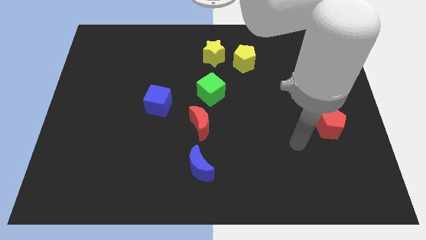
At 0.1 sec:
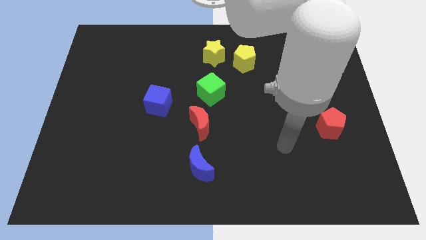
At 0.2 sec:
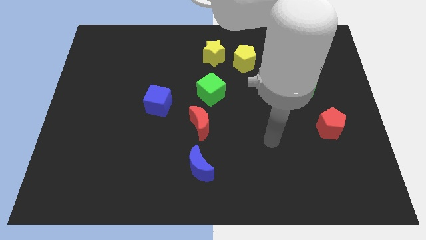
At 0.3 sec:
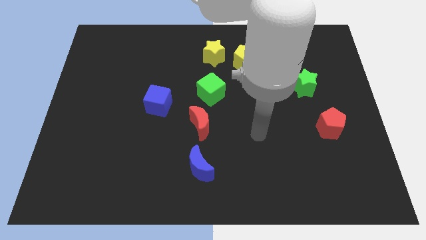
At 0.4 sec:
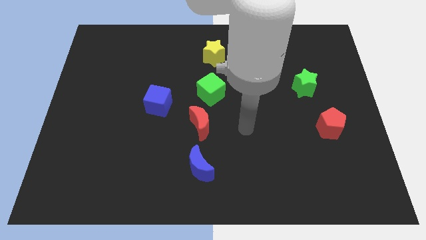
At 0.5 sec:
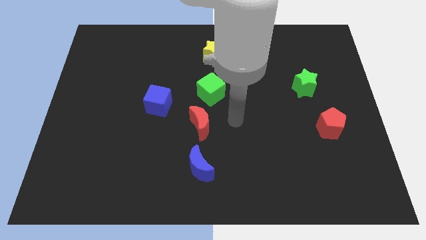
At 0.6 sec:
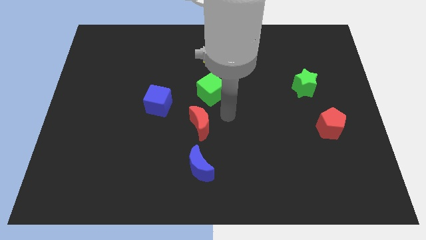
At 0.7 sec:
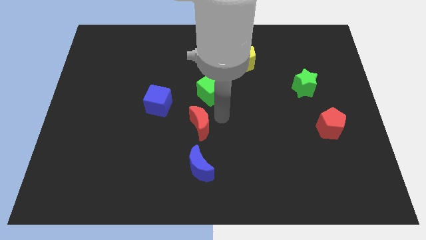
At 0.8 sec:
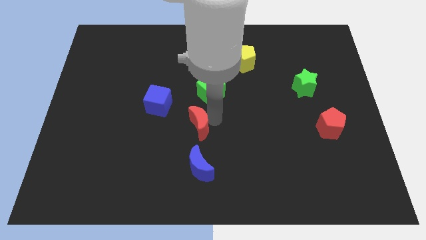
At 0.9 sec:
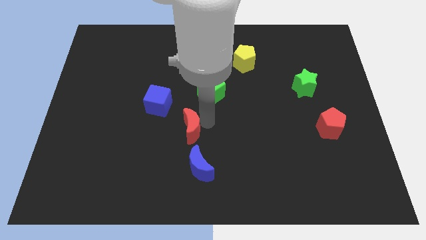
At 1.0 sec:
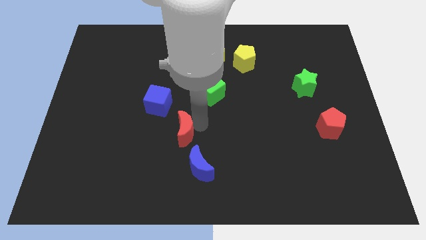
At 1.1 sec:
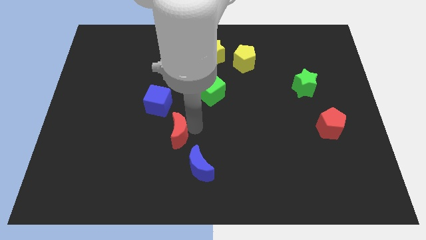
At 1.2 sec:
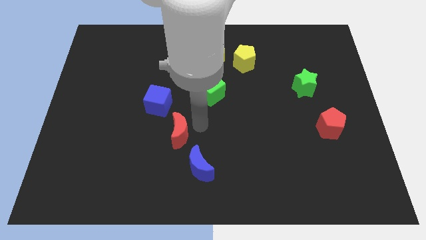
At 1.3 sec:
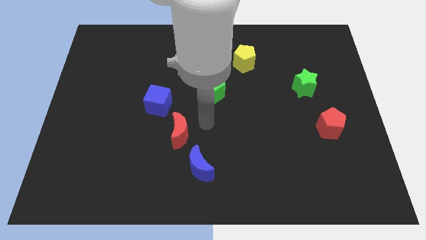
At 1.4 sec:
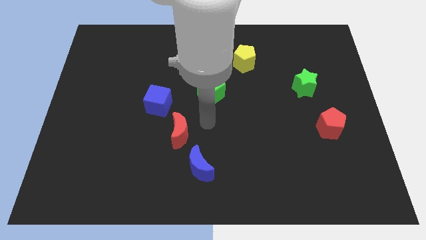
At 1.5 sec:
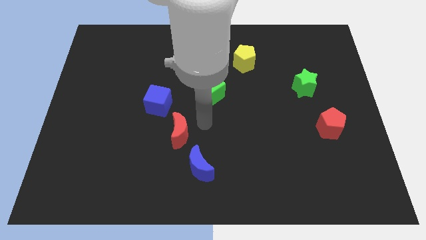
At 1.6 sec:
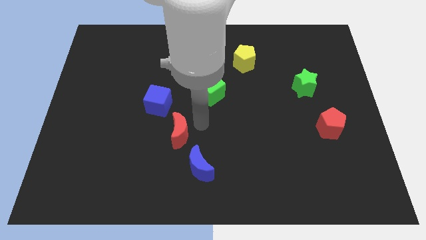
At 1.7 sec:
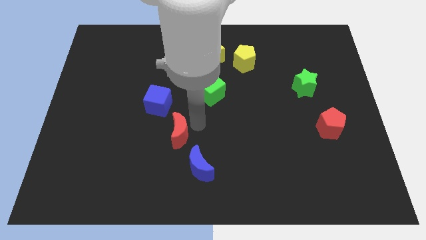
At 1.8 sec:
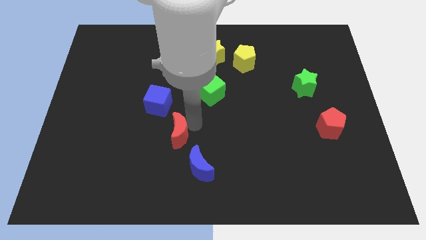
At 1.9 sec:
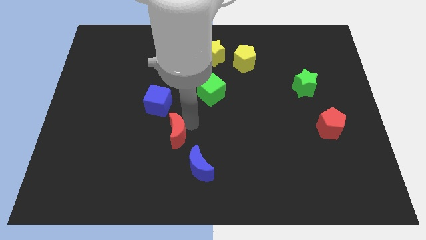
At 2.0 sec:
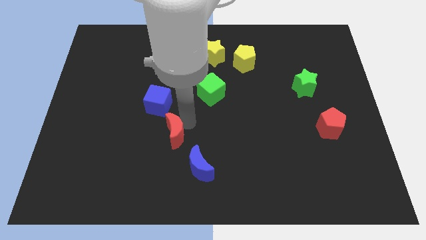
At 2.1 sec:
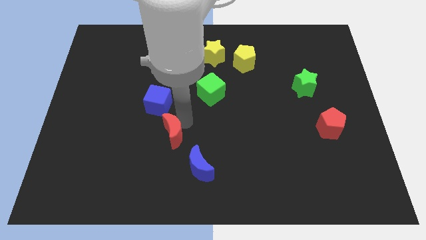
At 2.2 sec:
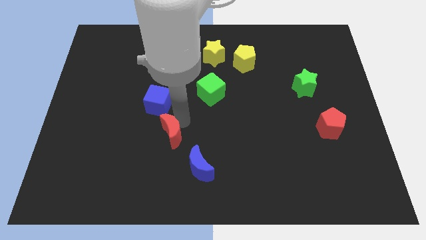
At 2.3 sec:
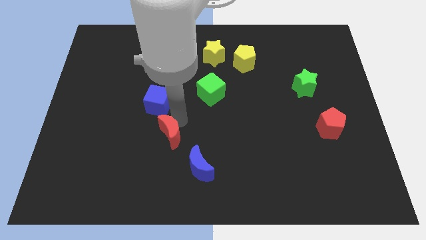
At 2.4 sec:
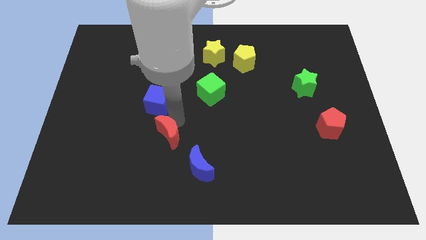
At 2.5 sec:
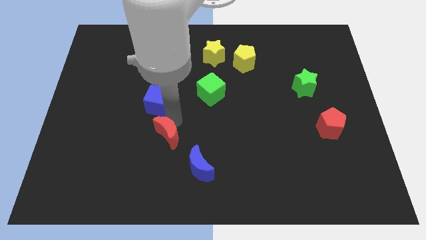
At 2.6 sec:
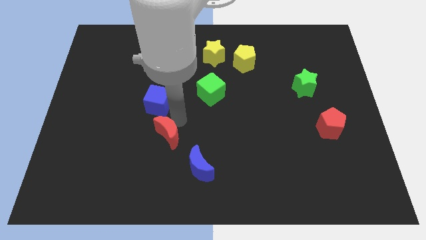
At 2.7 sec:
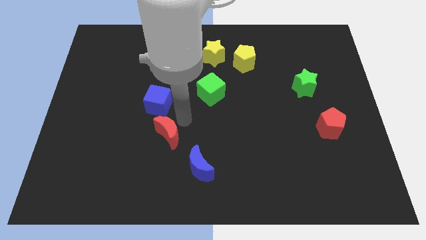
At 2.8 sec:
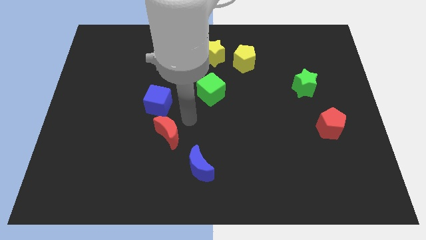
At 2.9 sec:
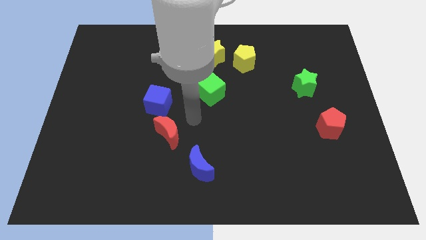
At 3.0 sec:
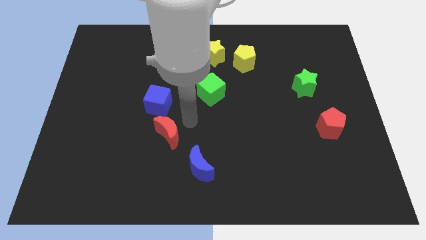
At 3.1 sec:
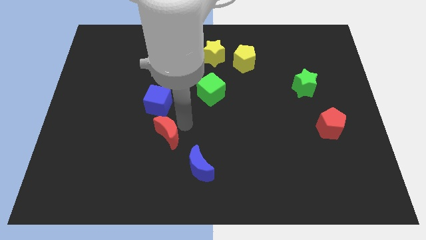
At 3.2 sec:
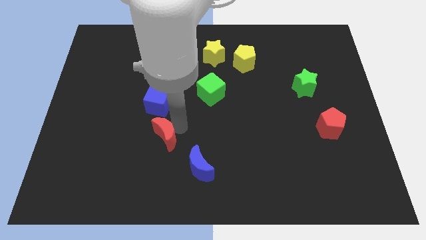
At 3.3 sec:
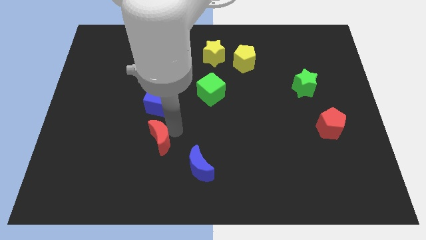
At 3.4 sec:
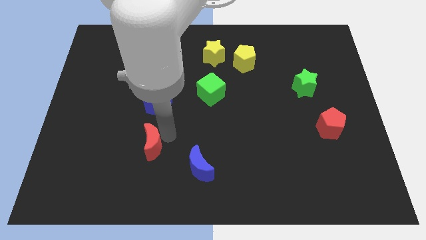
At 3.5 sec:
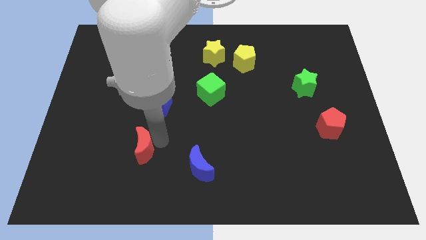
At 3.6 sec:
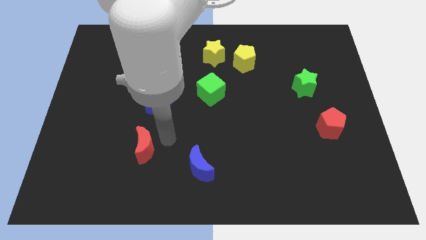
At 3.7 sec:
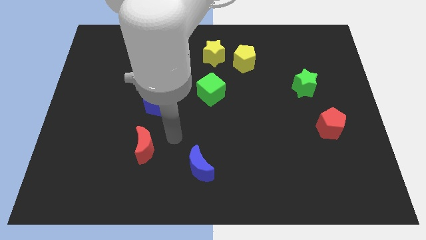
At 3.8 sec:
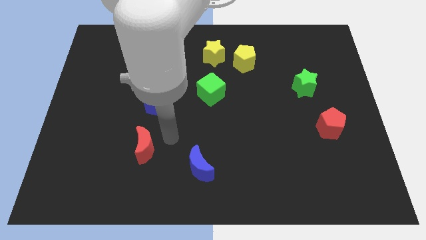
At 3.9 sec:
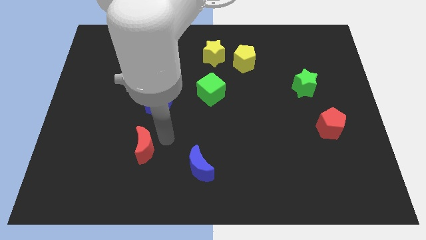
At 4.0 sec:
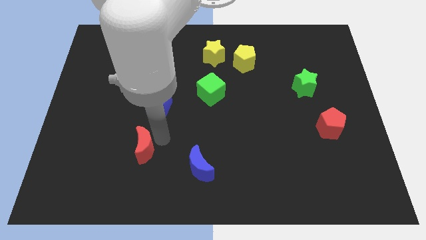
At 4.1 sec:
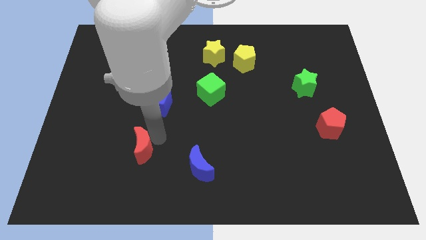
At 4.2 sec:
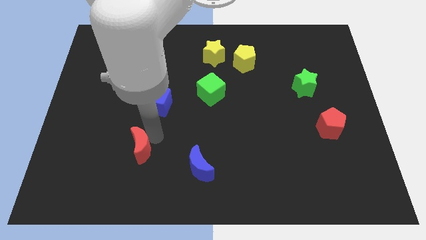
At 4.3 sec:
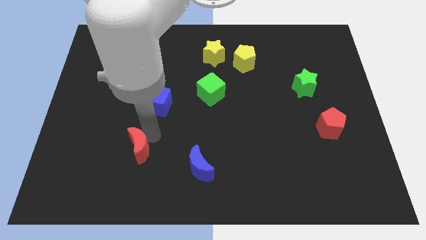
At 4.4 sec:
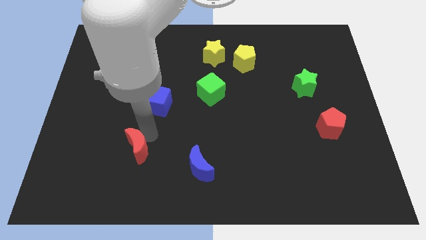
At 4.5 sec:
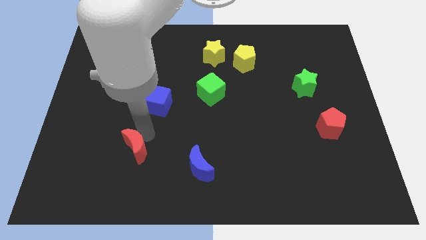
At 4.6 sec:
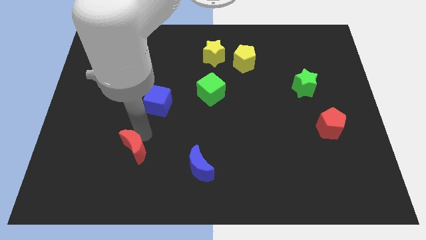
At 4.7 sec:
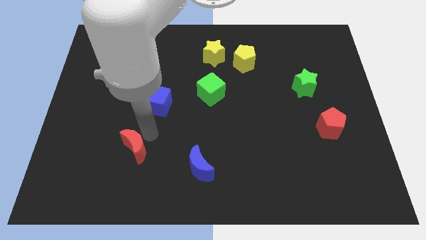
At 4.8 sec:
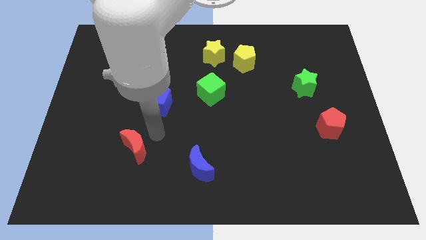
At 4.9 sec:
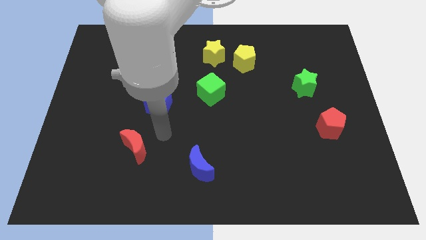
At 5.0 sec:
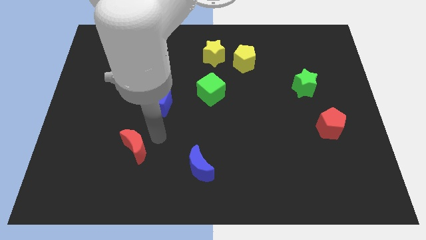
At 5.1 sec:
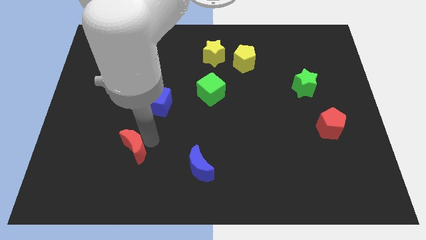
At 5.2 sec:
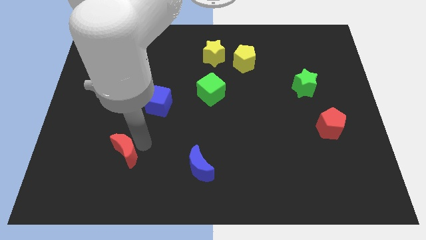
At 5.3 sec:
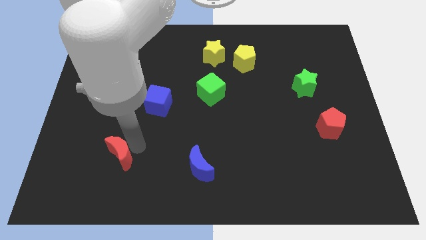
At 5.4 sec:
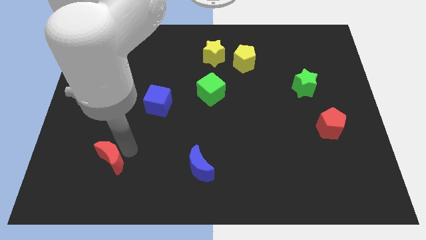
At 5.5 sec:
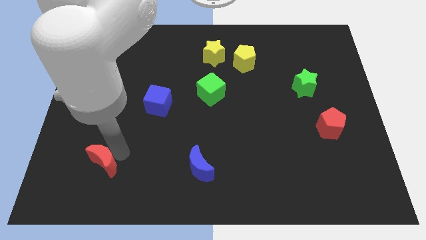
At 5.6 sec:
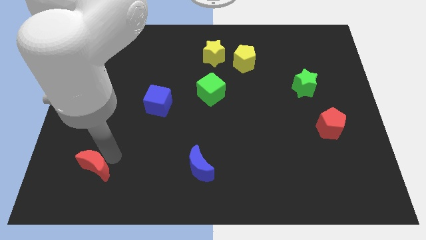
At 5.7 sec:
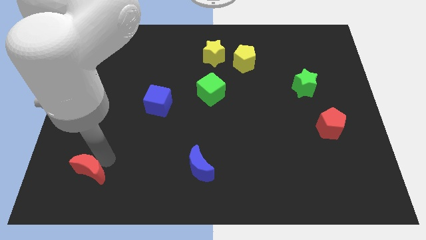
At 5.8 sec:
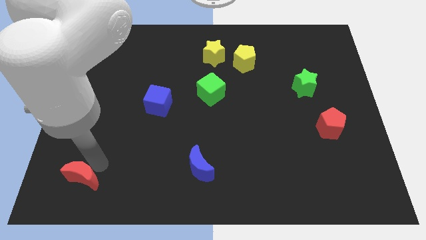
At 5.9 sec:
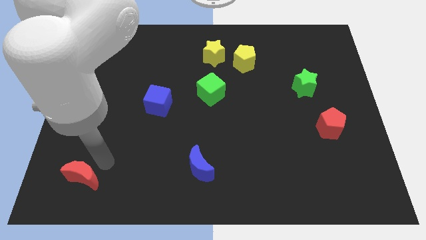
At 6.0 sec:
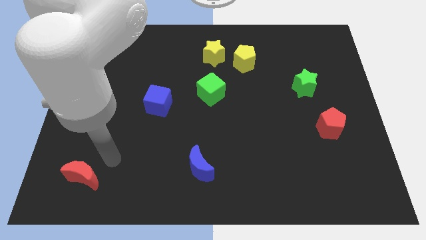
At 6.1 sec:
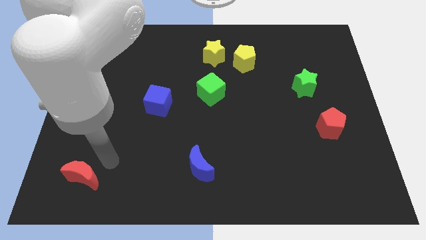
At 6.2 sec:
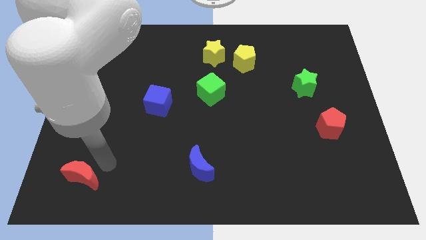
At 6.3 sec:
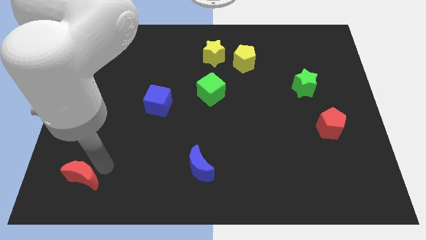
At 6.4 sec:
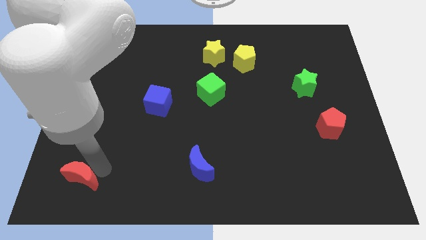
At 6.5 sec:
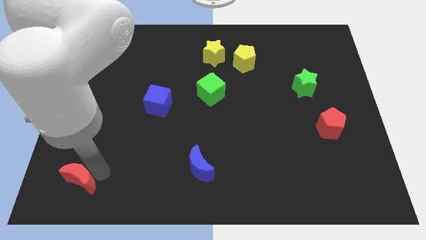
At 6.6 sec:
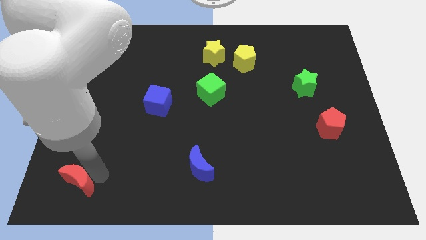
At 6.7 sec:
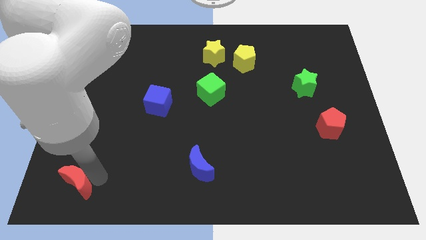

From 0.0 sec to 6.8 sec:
push the red moon to the bottom left
